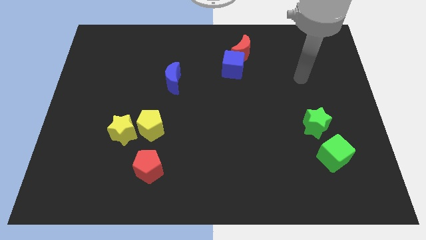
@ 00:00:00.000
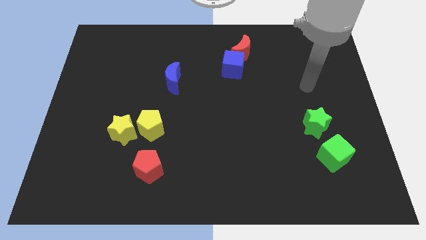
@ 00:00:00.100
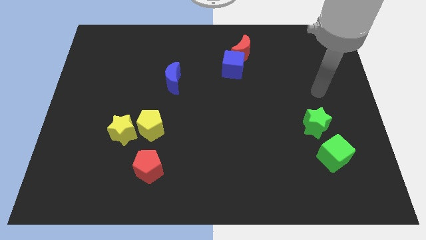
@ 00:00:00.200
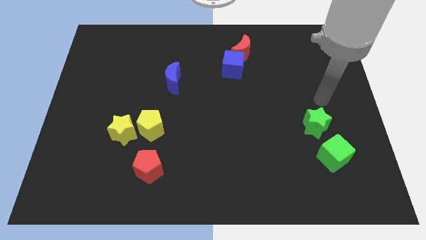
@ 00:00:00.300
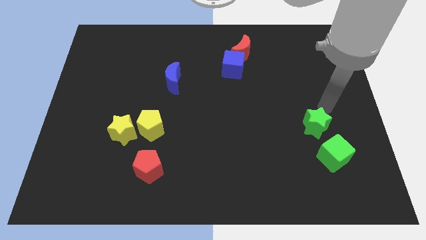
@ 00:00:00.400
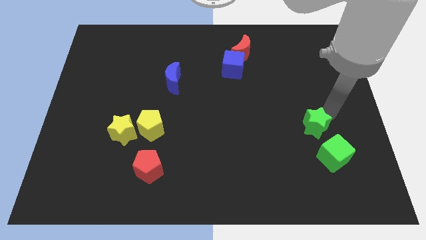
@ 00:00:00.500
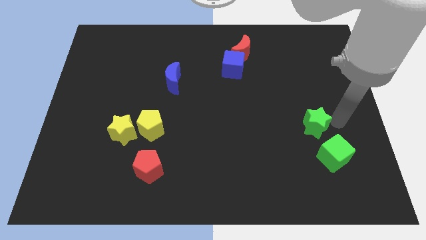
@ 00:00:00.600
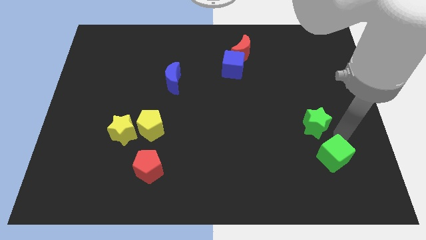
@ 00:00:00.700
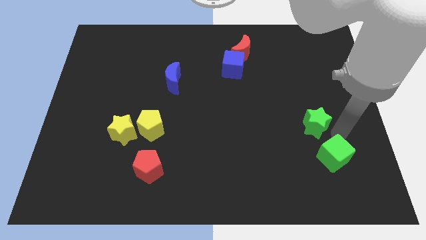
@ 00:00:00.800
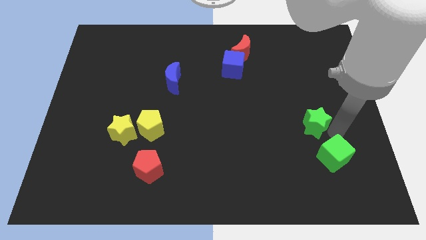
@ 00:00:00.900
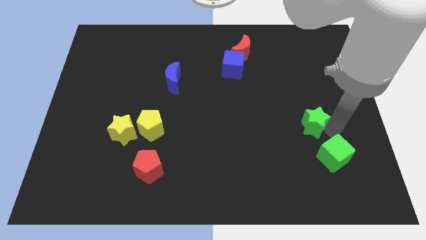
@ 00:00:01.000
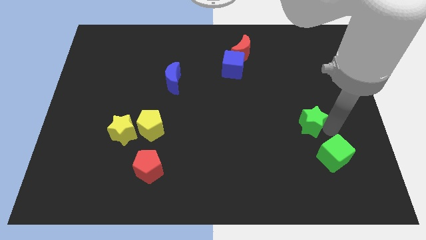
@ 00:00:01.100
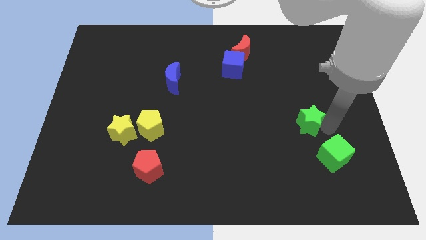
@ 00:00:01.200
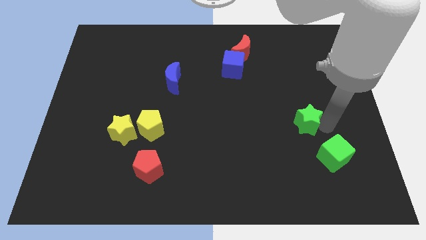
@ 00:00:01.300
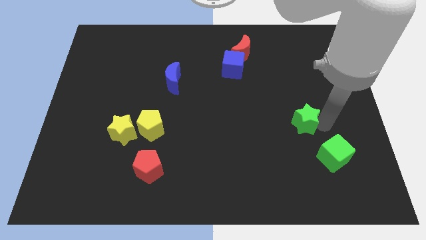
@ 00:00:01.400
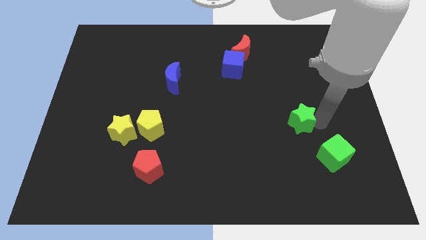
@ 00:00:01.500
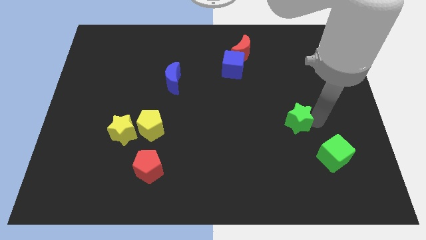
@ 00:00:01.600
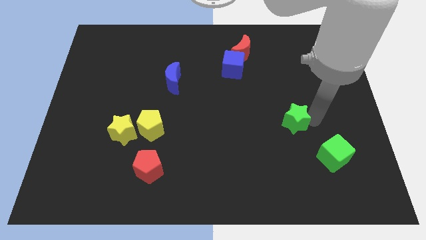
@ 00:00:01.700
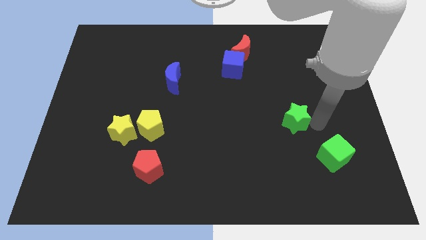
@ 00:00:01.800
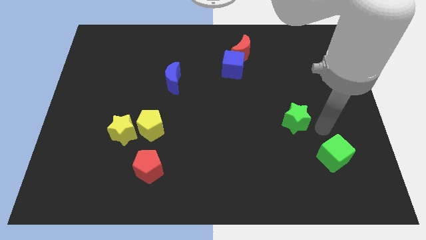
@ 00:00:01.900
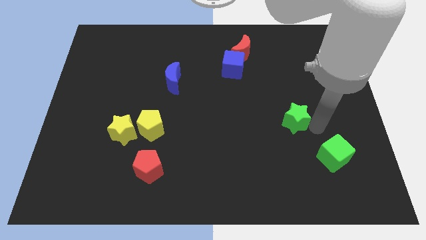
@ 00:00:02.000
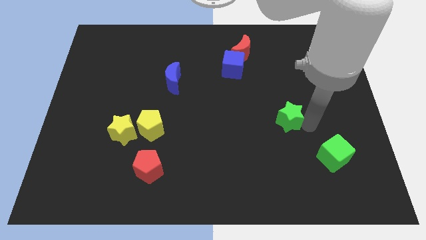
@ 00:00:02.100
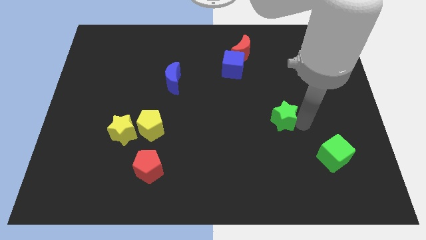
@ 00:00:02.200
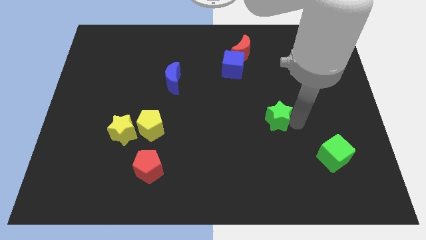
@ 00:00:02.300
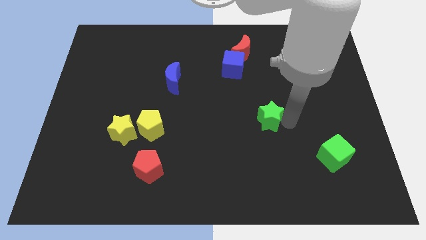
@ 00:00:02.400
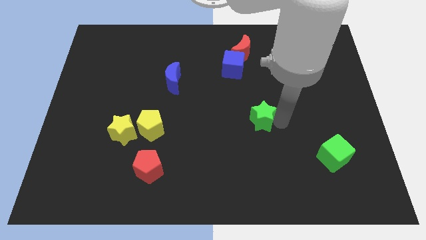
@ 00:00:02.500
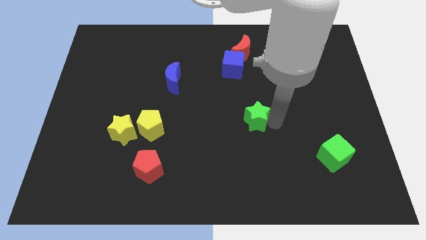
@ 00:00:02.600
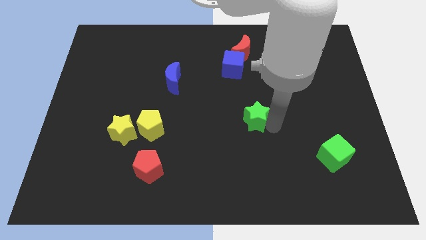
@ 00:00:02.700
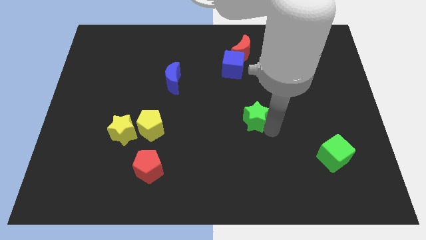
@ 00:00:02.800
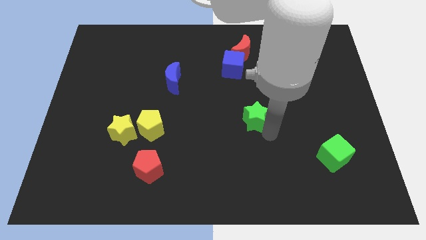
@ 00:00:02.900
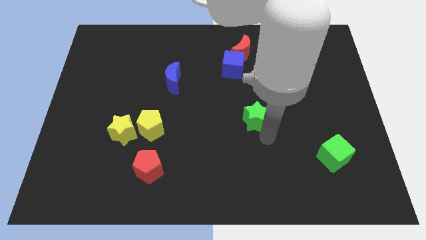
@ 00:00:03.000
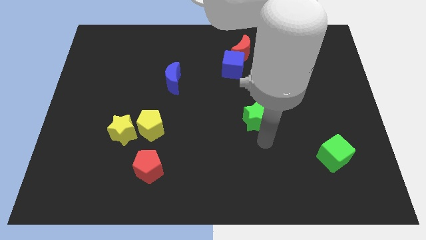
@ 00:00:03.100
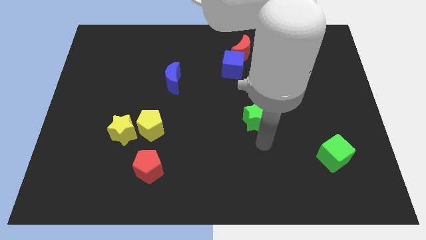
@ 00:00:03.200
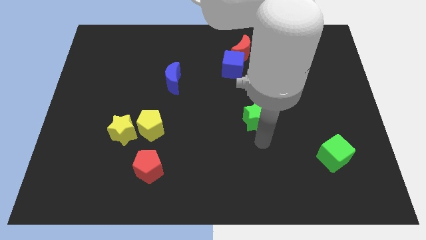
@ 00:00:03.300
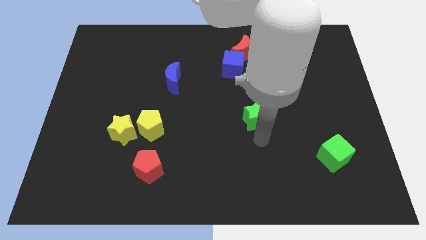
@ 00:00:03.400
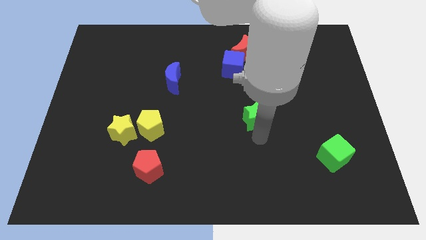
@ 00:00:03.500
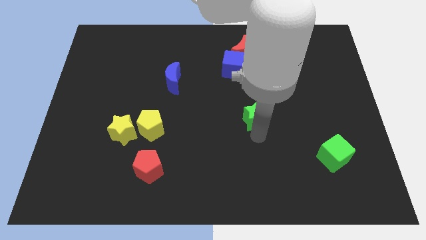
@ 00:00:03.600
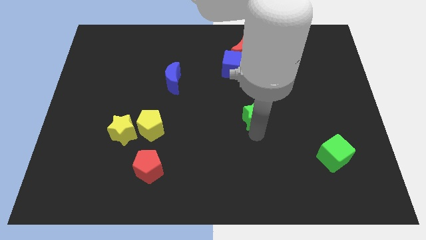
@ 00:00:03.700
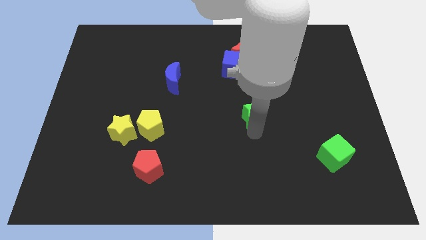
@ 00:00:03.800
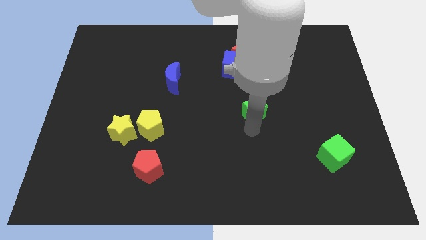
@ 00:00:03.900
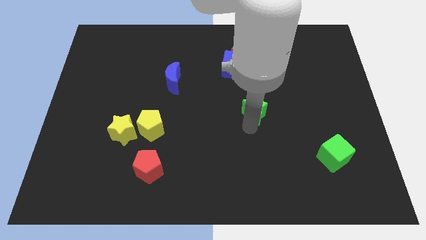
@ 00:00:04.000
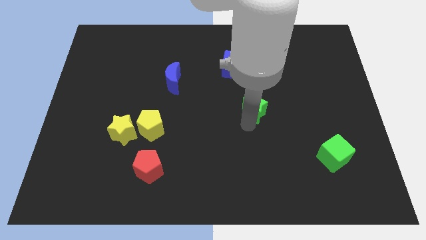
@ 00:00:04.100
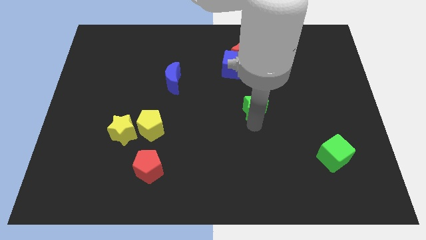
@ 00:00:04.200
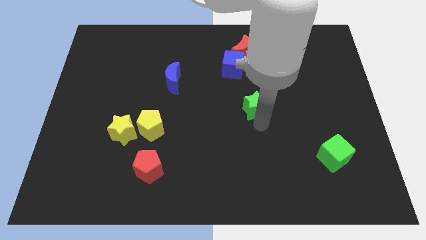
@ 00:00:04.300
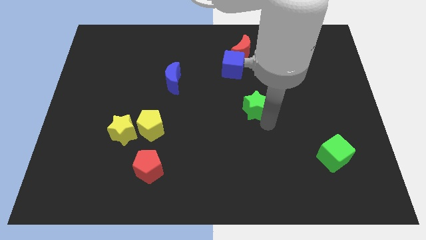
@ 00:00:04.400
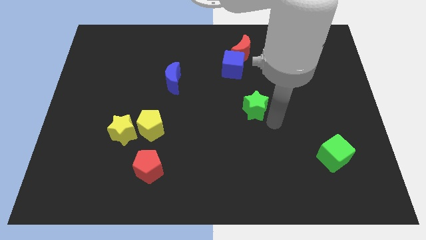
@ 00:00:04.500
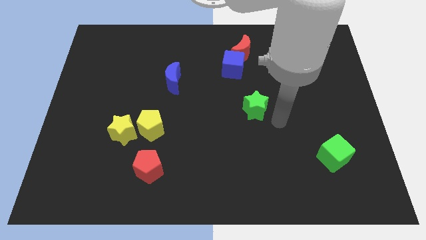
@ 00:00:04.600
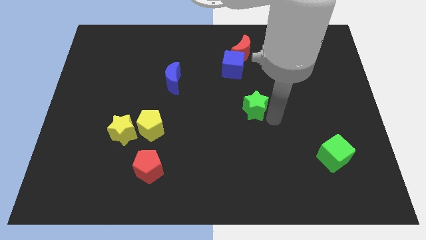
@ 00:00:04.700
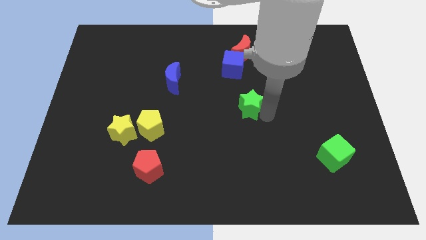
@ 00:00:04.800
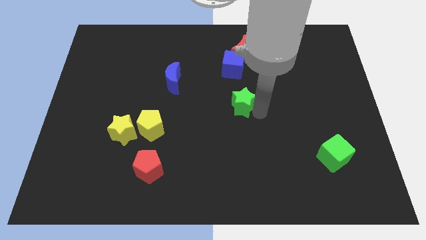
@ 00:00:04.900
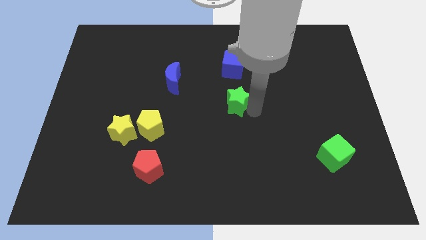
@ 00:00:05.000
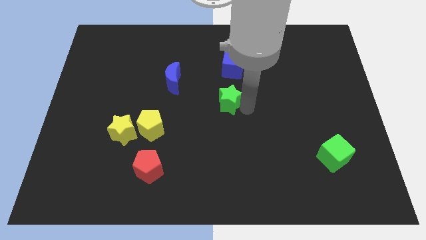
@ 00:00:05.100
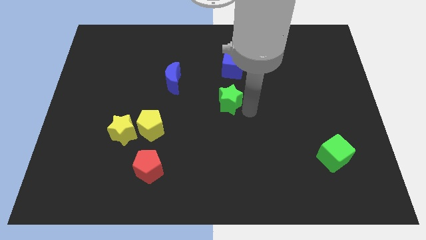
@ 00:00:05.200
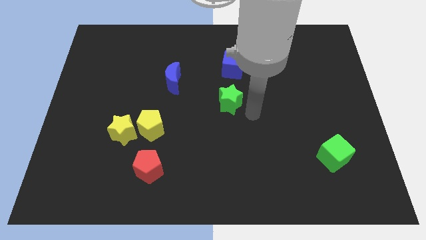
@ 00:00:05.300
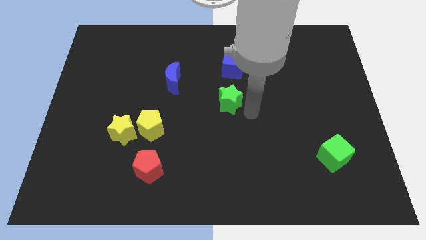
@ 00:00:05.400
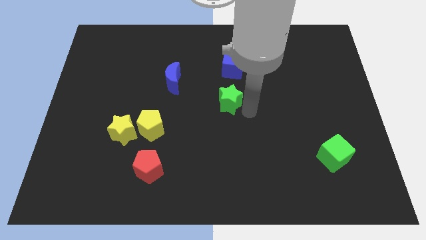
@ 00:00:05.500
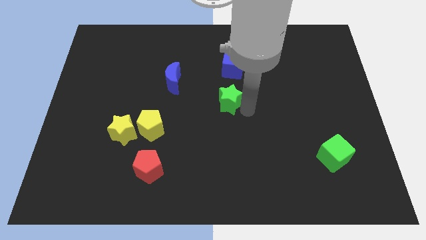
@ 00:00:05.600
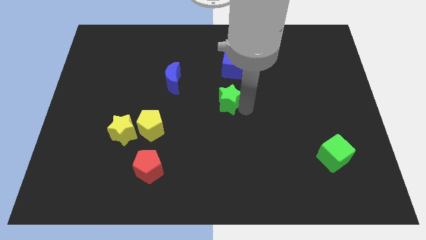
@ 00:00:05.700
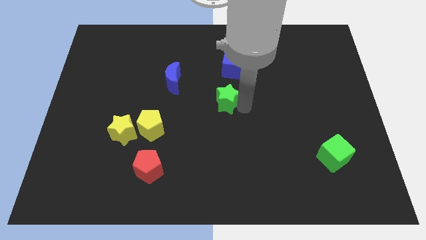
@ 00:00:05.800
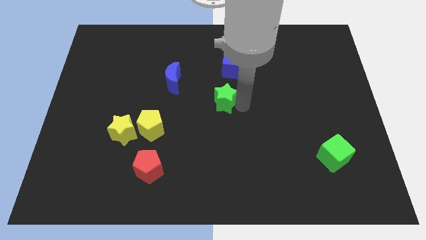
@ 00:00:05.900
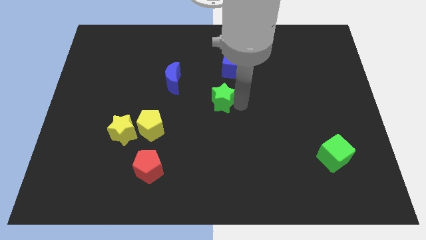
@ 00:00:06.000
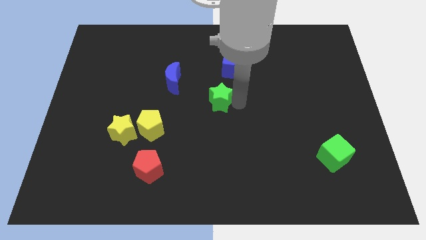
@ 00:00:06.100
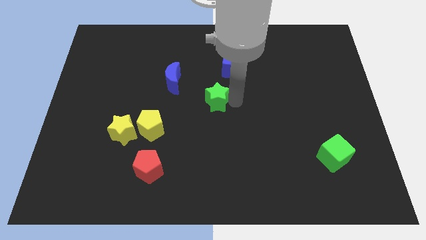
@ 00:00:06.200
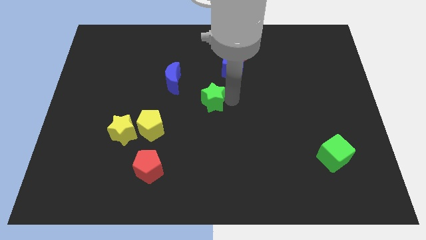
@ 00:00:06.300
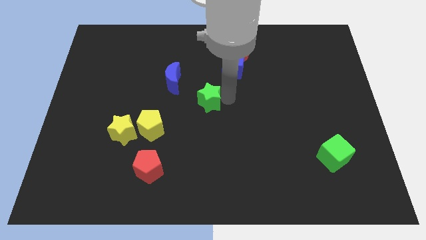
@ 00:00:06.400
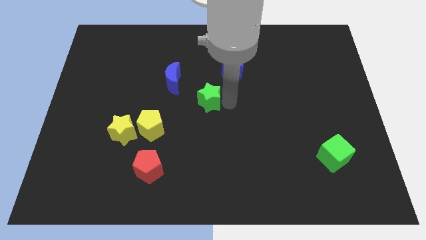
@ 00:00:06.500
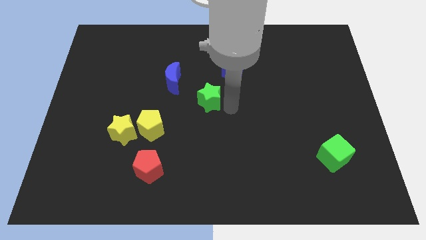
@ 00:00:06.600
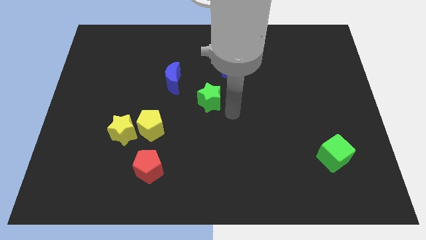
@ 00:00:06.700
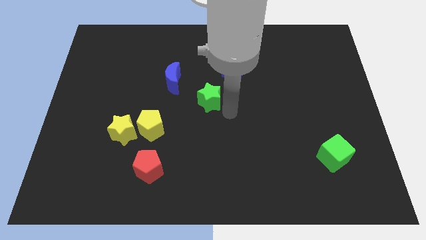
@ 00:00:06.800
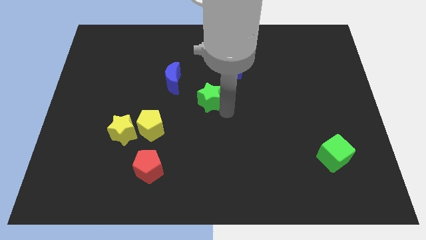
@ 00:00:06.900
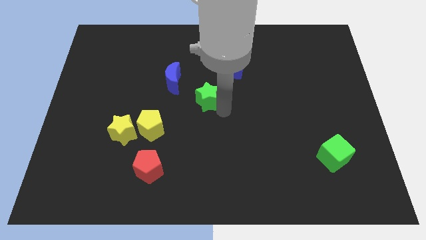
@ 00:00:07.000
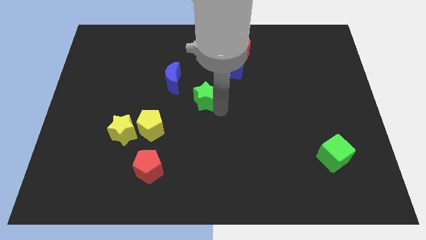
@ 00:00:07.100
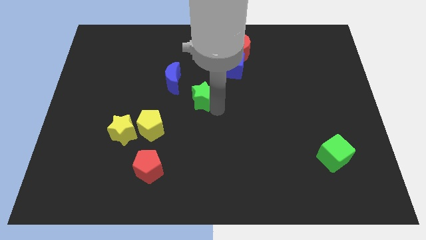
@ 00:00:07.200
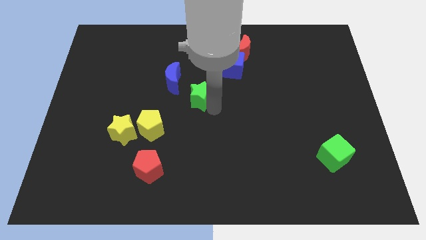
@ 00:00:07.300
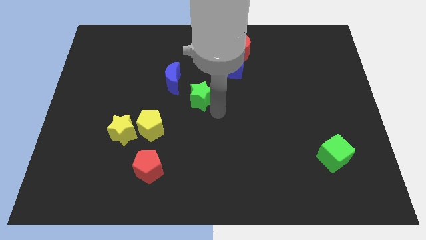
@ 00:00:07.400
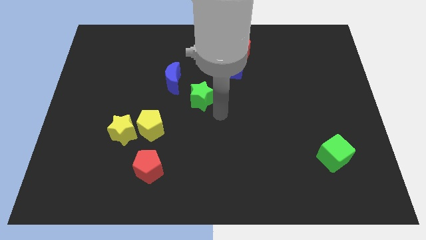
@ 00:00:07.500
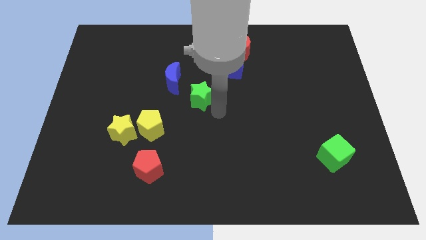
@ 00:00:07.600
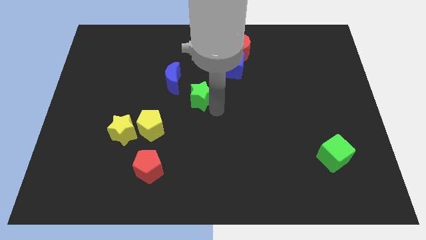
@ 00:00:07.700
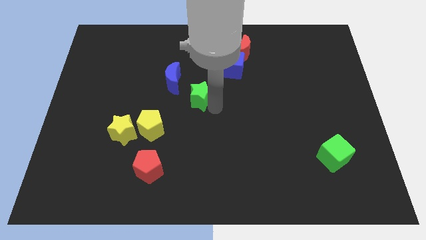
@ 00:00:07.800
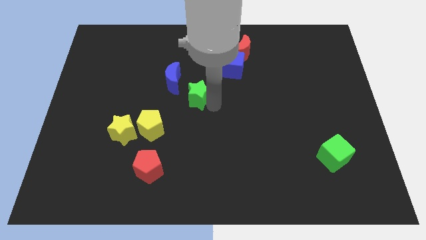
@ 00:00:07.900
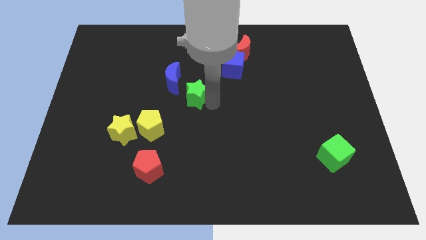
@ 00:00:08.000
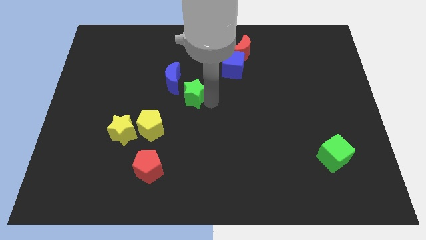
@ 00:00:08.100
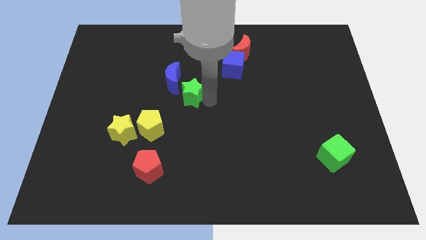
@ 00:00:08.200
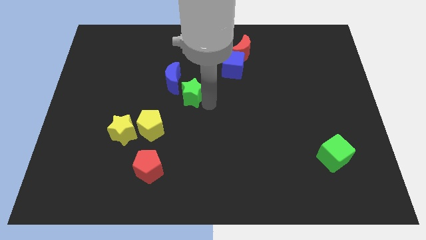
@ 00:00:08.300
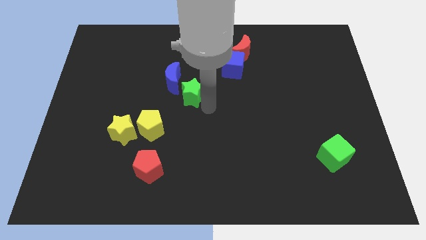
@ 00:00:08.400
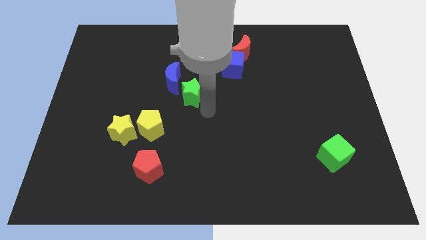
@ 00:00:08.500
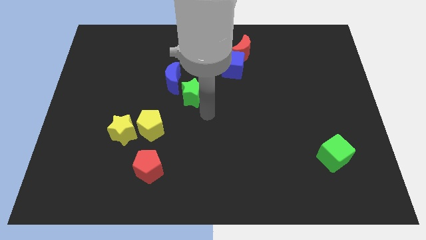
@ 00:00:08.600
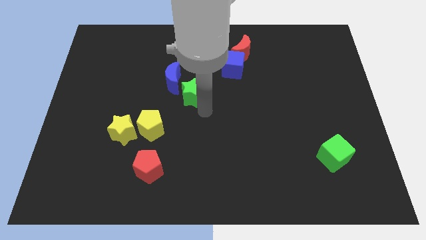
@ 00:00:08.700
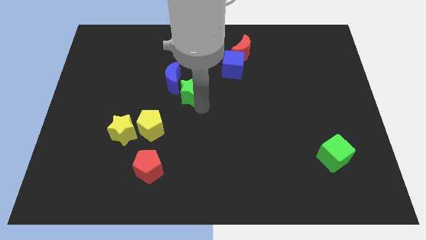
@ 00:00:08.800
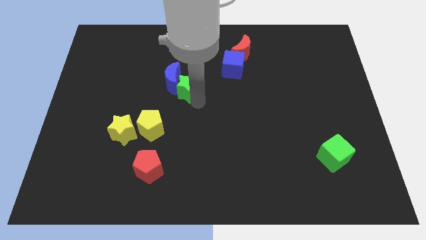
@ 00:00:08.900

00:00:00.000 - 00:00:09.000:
push the green star to the blue moon
